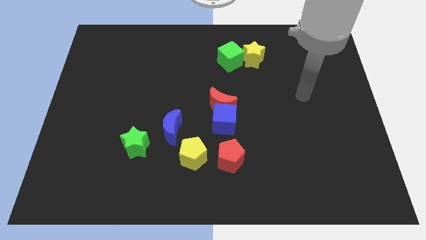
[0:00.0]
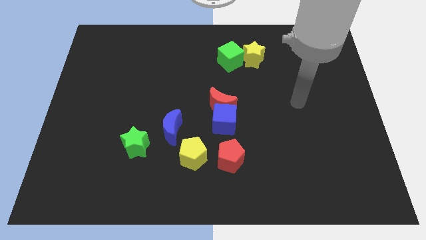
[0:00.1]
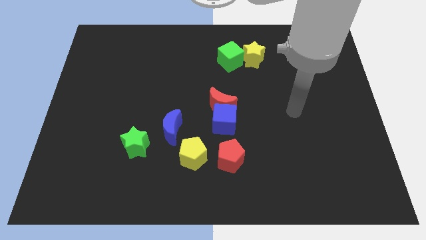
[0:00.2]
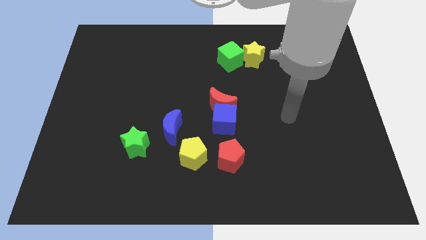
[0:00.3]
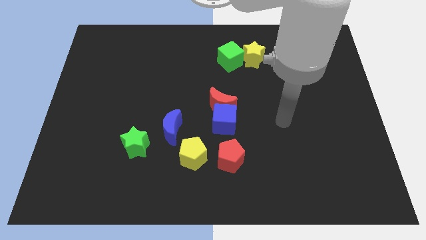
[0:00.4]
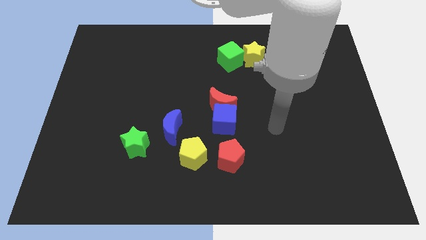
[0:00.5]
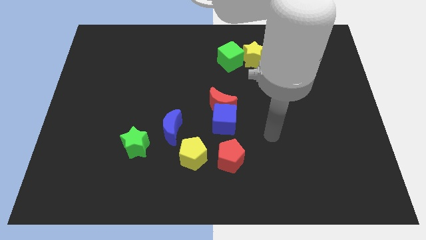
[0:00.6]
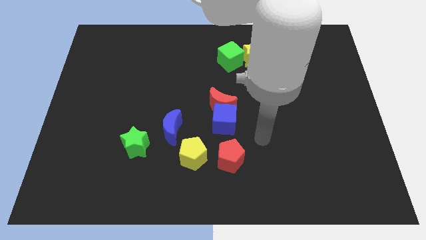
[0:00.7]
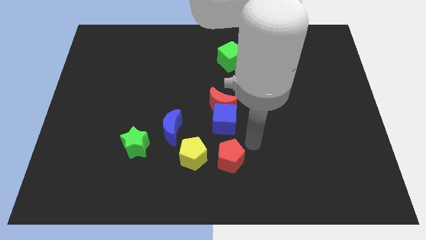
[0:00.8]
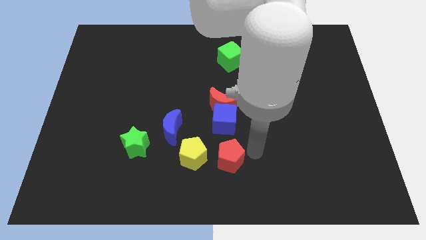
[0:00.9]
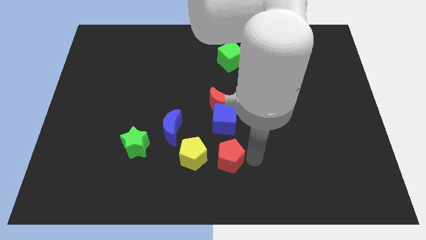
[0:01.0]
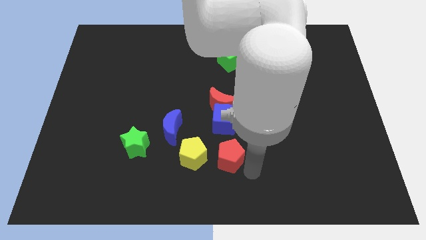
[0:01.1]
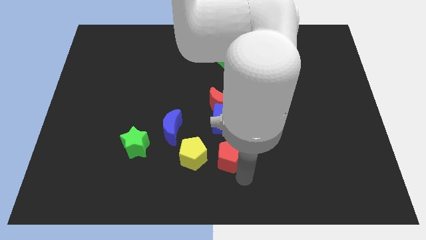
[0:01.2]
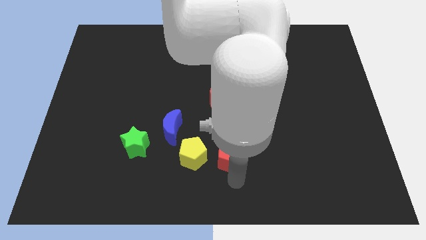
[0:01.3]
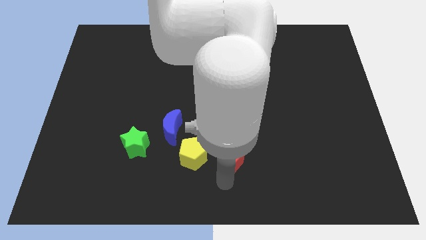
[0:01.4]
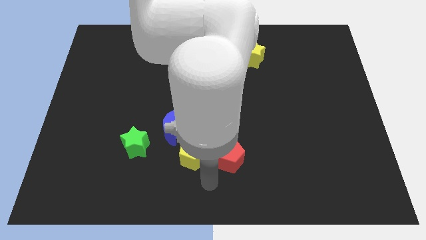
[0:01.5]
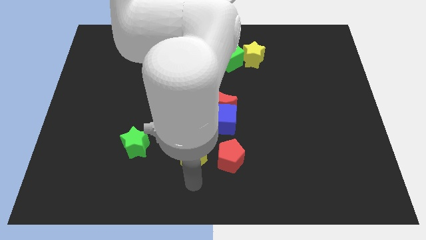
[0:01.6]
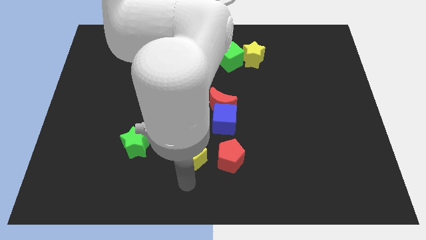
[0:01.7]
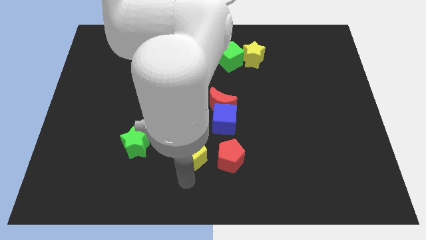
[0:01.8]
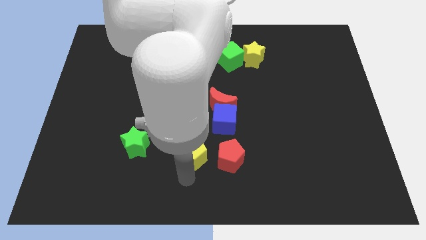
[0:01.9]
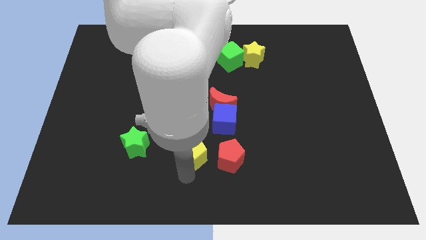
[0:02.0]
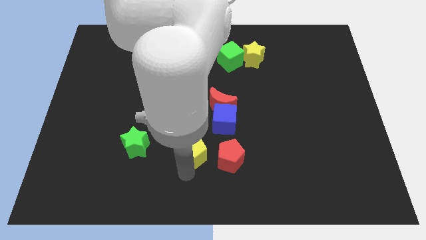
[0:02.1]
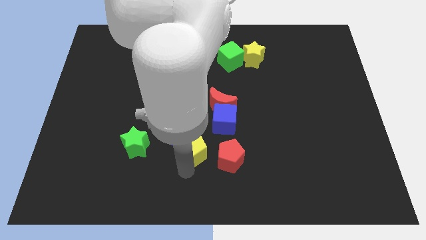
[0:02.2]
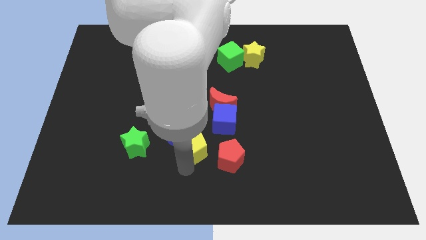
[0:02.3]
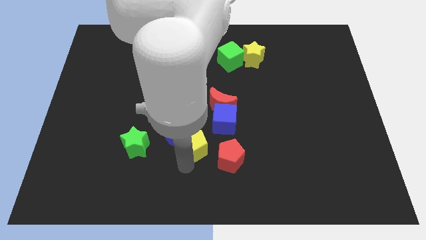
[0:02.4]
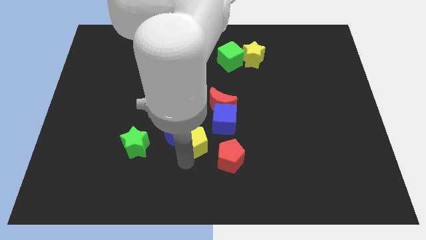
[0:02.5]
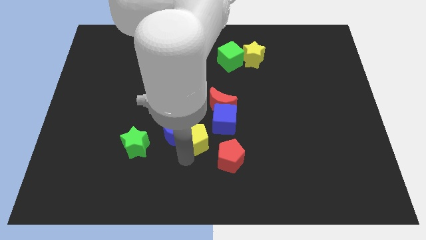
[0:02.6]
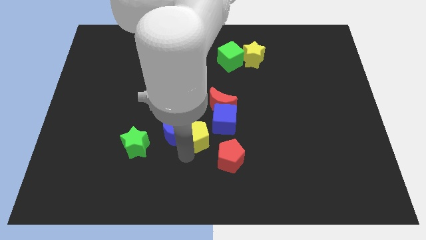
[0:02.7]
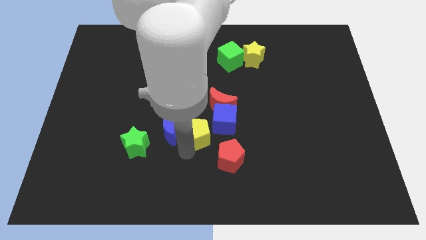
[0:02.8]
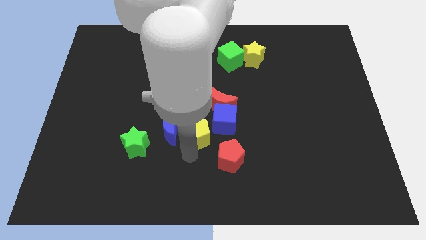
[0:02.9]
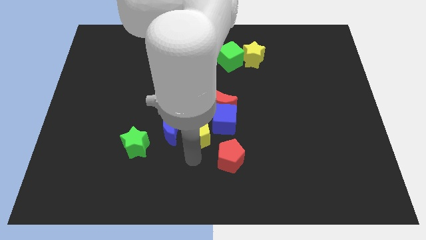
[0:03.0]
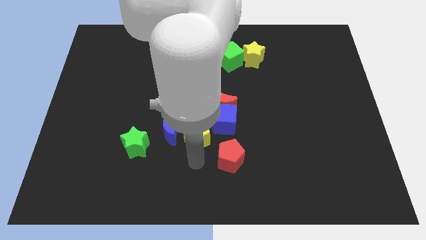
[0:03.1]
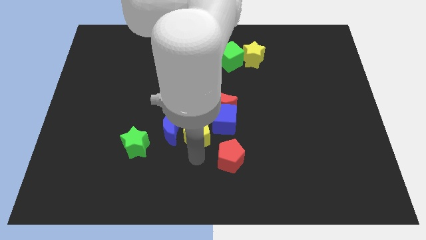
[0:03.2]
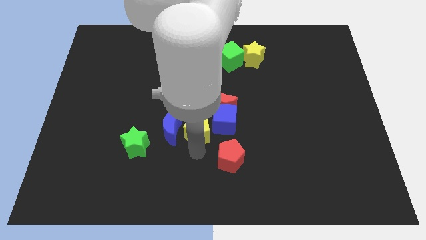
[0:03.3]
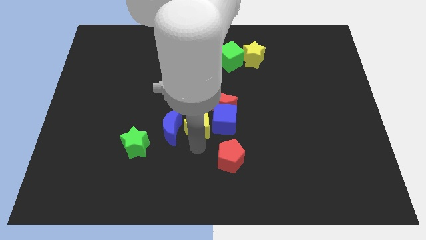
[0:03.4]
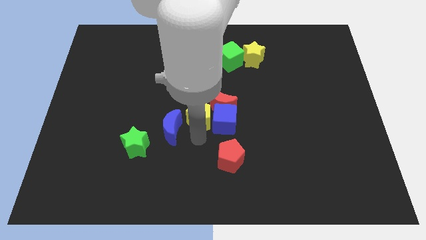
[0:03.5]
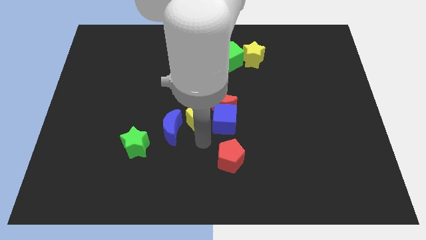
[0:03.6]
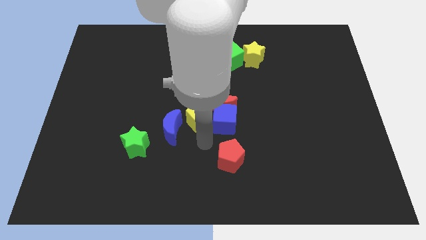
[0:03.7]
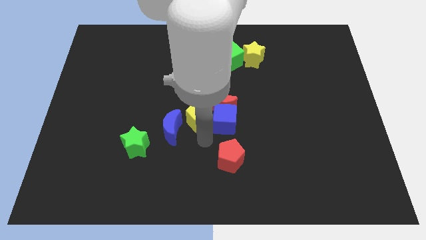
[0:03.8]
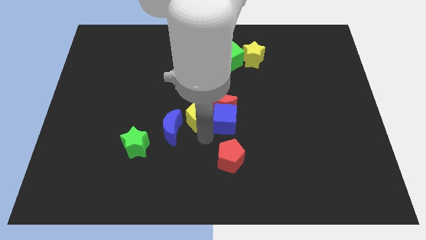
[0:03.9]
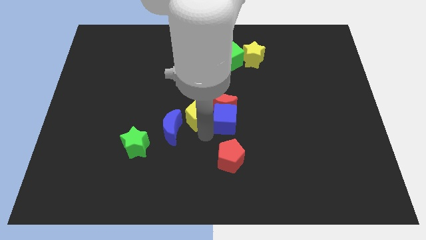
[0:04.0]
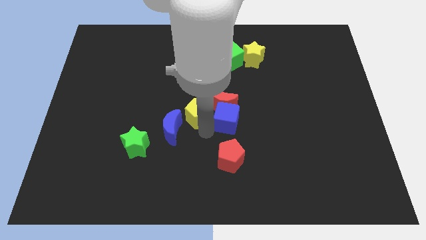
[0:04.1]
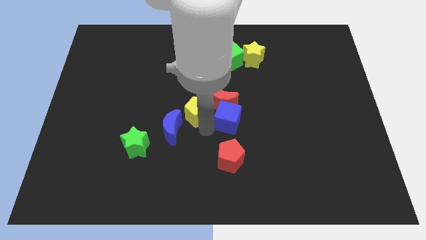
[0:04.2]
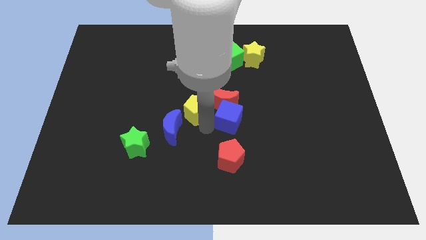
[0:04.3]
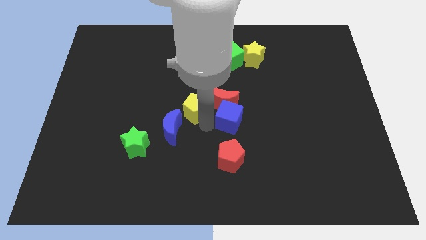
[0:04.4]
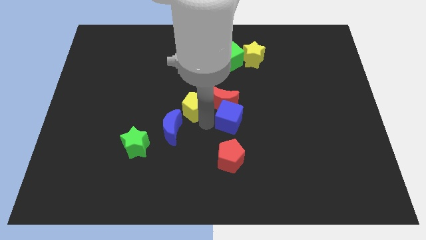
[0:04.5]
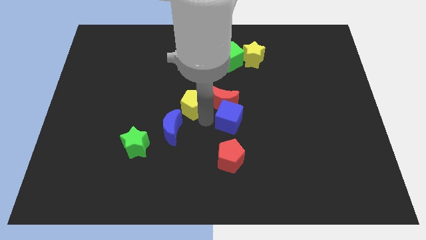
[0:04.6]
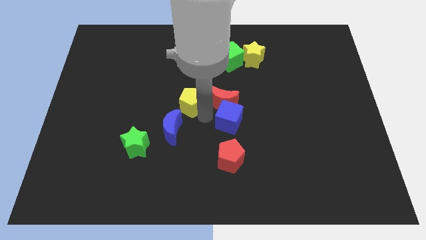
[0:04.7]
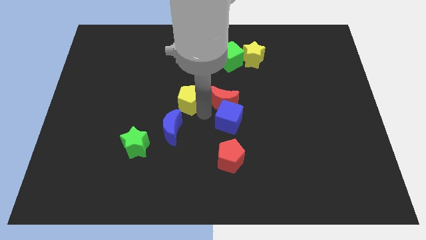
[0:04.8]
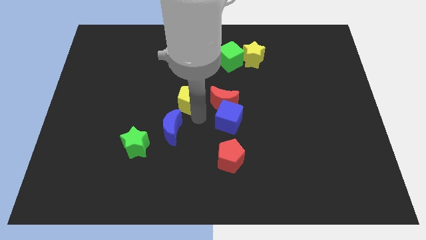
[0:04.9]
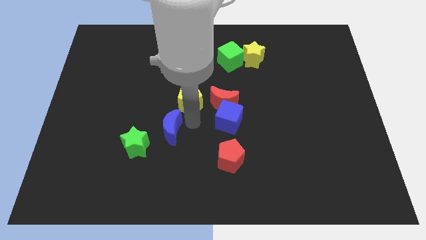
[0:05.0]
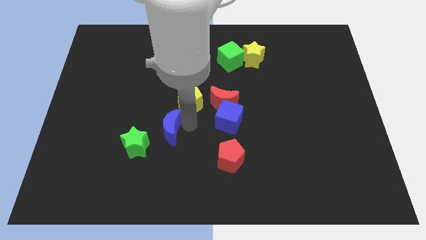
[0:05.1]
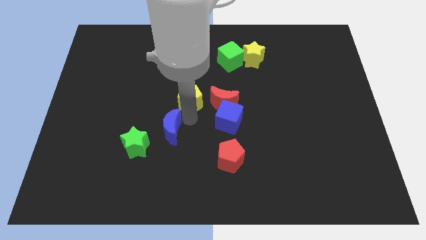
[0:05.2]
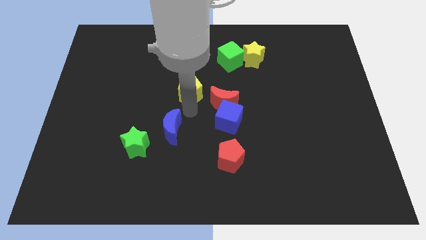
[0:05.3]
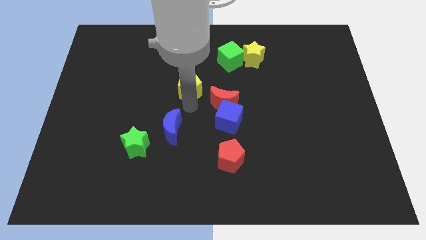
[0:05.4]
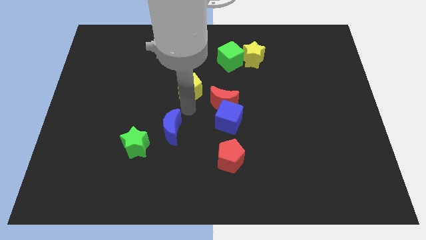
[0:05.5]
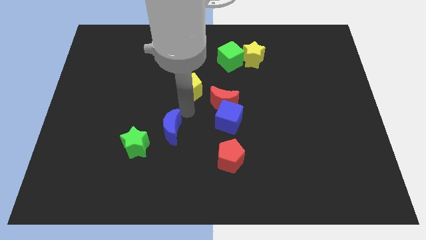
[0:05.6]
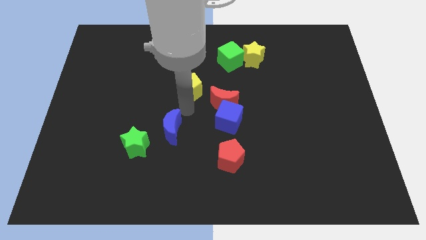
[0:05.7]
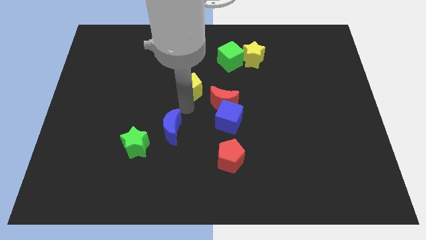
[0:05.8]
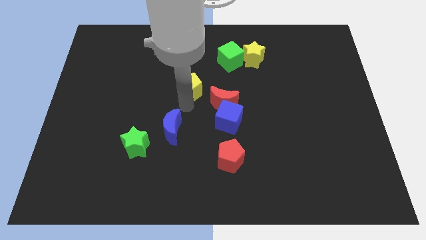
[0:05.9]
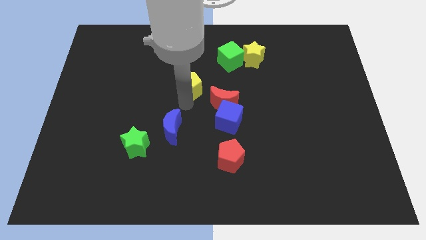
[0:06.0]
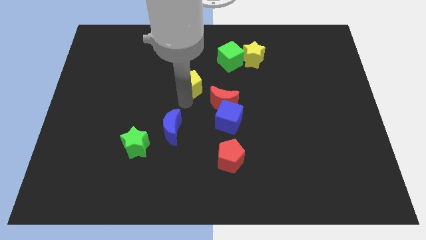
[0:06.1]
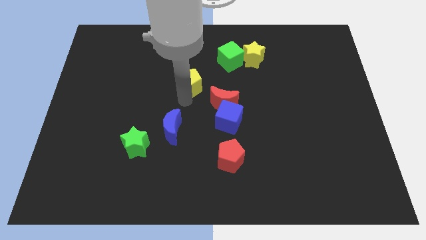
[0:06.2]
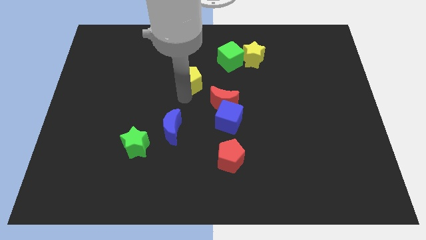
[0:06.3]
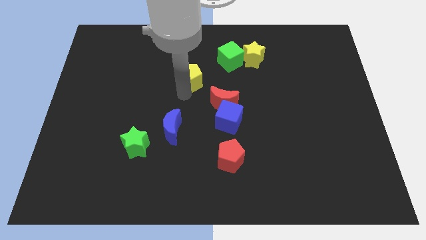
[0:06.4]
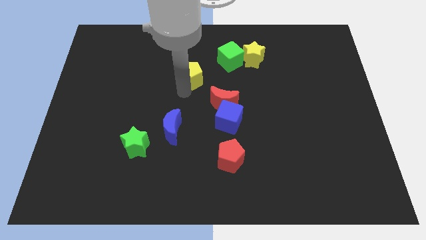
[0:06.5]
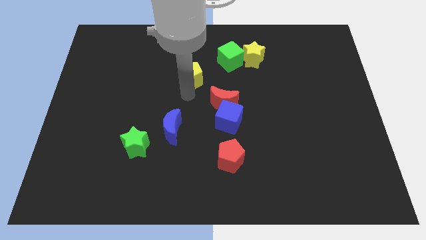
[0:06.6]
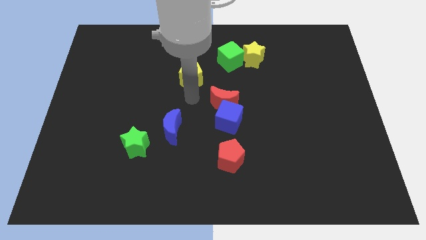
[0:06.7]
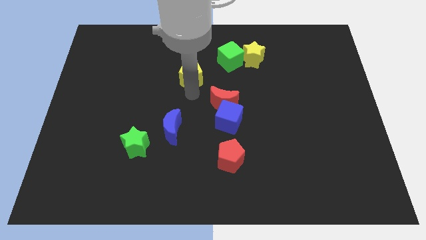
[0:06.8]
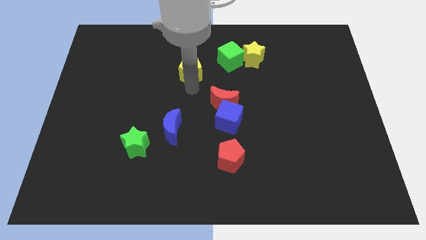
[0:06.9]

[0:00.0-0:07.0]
push the yellow pentagon left of the green cube

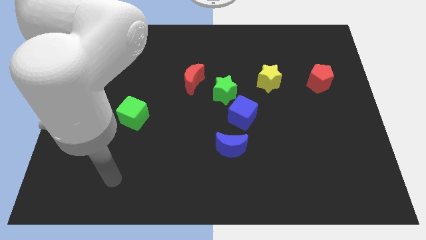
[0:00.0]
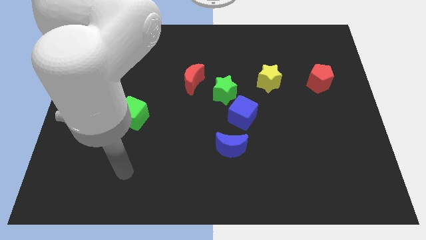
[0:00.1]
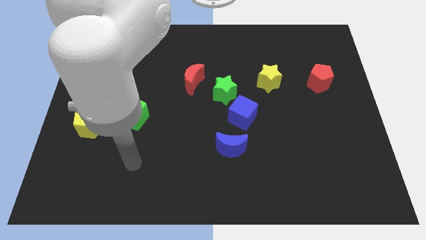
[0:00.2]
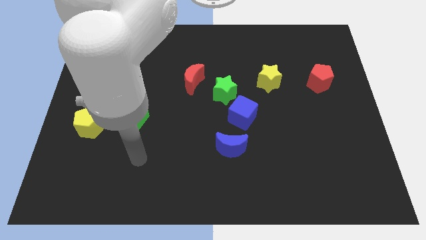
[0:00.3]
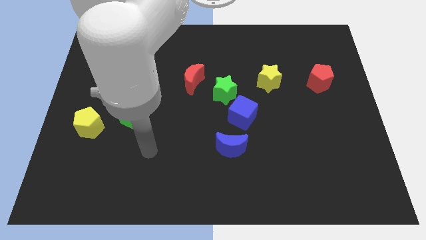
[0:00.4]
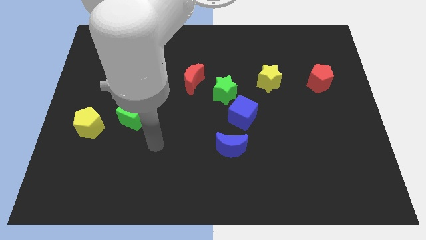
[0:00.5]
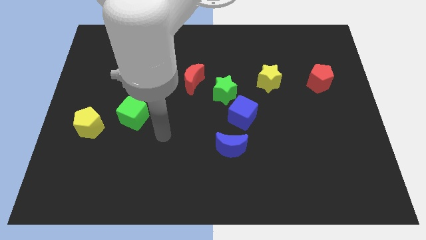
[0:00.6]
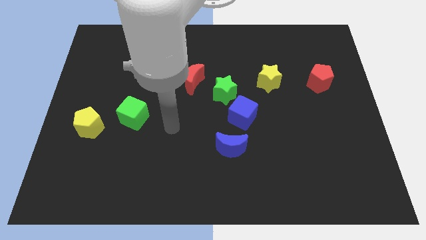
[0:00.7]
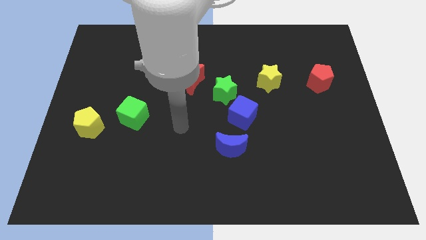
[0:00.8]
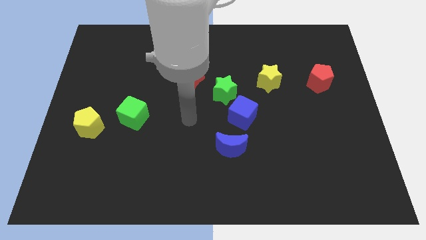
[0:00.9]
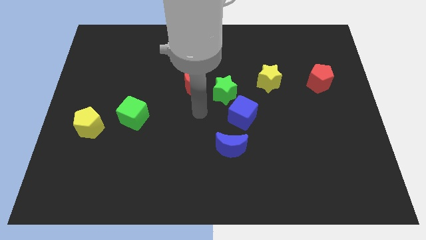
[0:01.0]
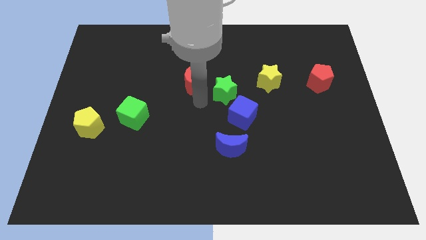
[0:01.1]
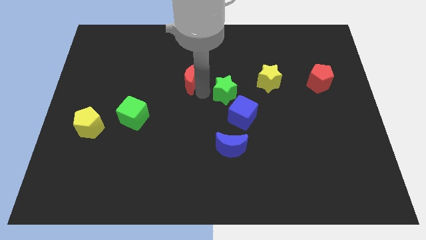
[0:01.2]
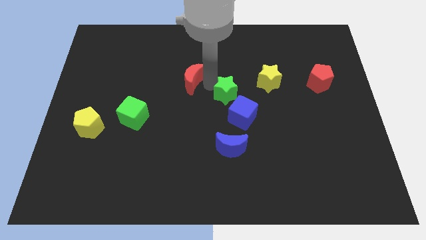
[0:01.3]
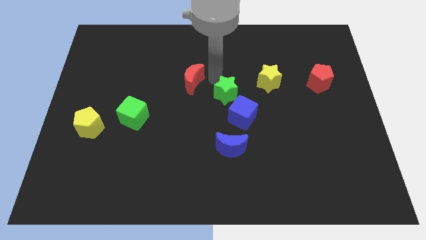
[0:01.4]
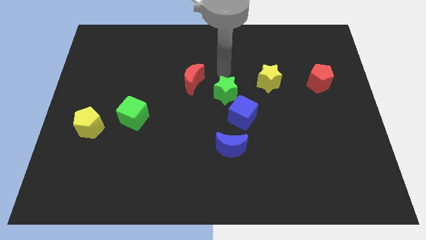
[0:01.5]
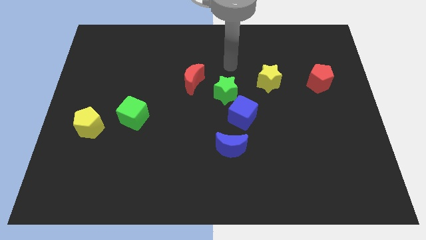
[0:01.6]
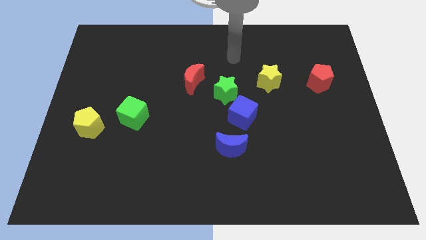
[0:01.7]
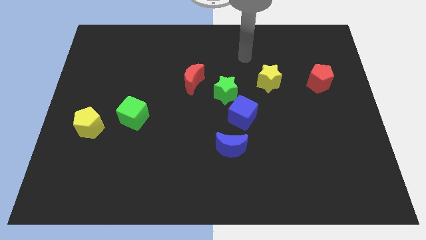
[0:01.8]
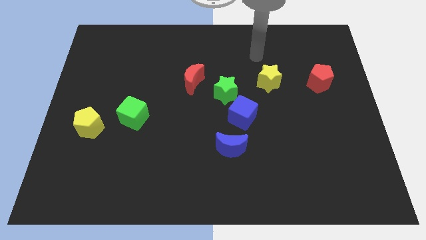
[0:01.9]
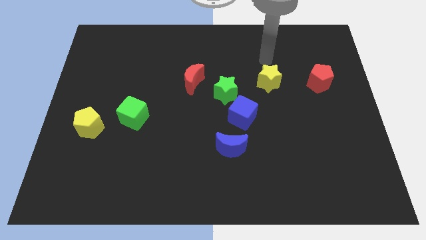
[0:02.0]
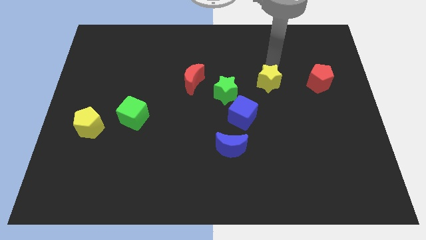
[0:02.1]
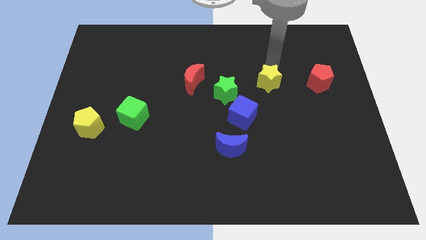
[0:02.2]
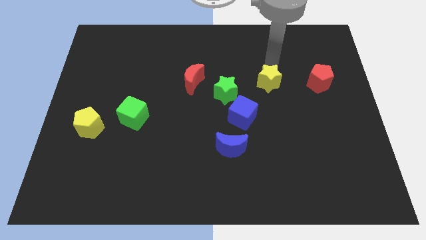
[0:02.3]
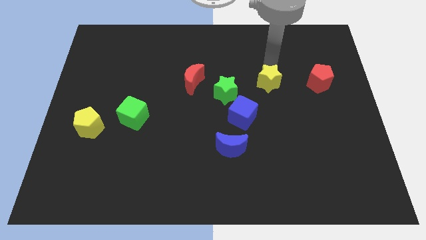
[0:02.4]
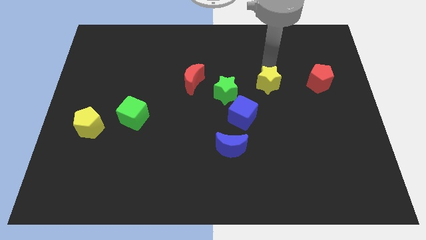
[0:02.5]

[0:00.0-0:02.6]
put the yellow star diagonally up and to the right of the blue cube
